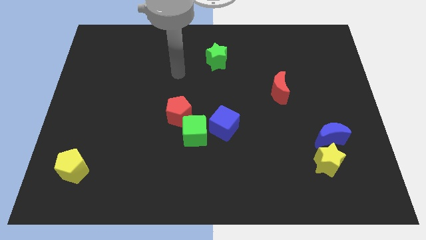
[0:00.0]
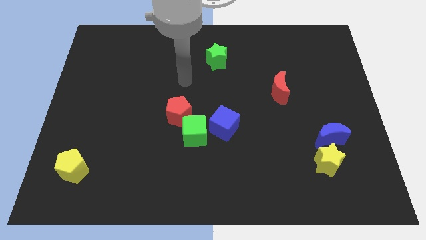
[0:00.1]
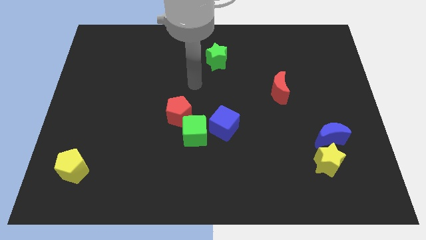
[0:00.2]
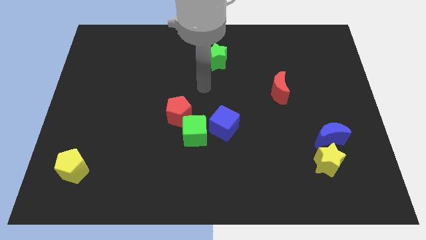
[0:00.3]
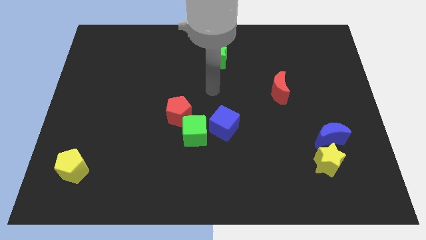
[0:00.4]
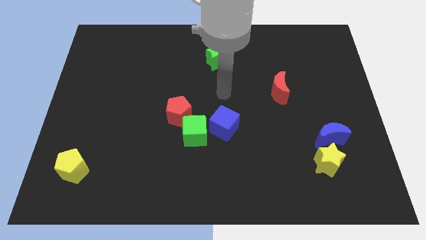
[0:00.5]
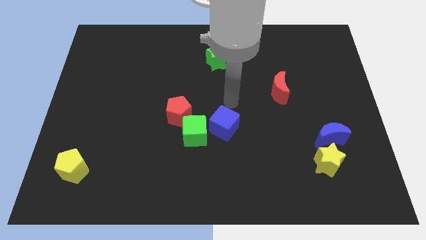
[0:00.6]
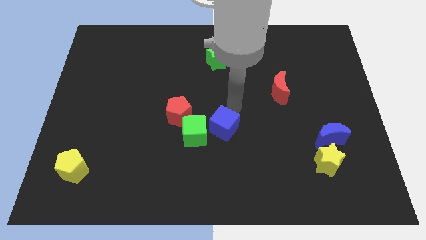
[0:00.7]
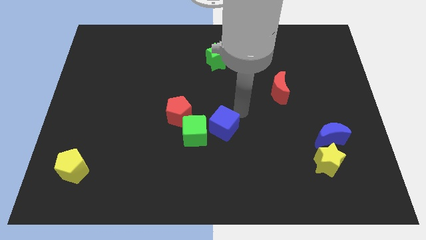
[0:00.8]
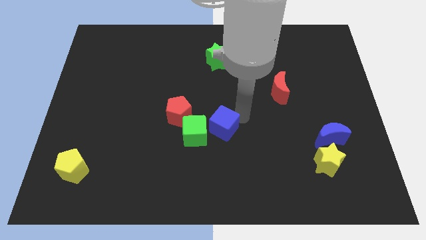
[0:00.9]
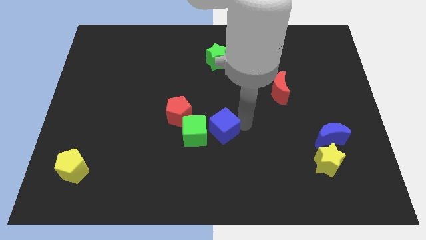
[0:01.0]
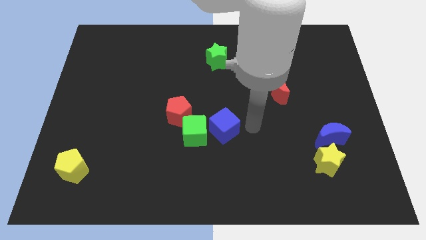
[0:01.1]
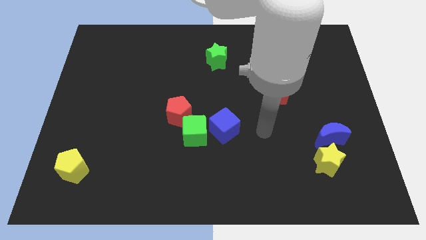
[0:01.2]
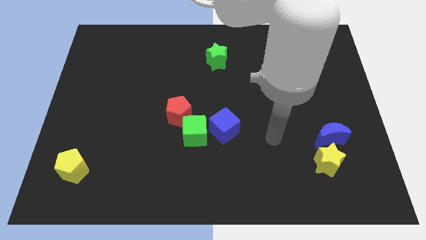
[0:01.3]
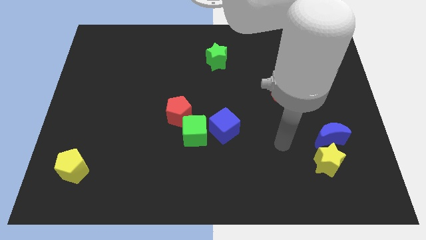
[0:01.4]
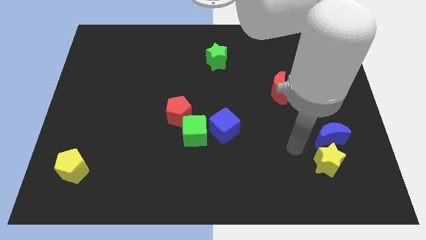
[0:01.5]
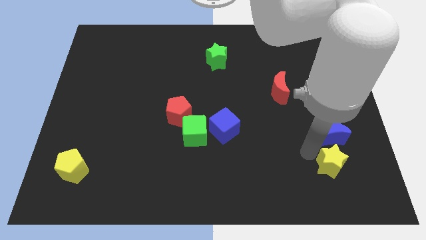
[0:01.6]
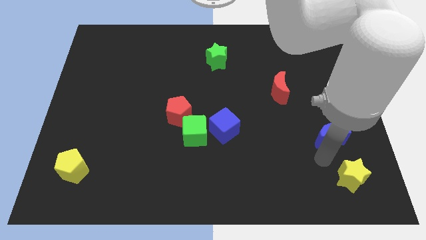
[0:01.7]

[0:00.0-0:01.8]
pull the blue moon apart from the yellow star

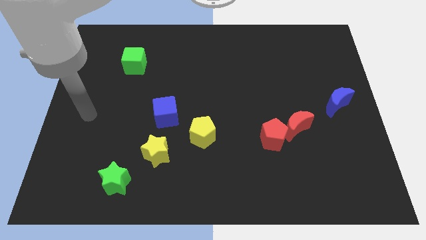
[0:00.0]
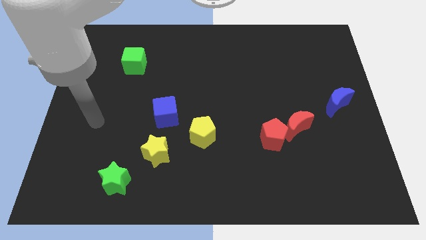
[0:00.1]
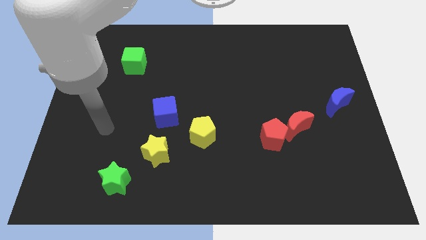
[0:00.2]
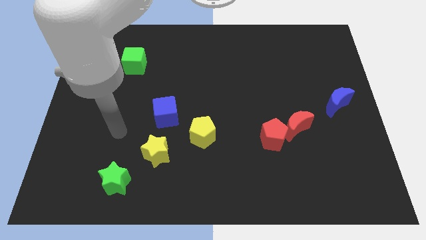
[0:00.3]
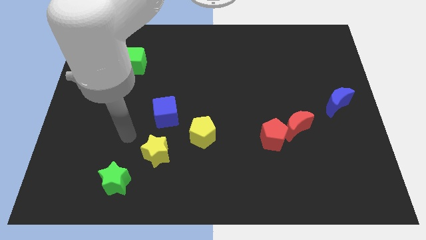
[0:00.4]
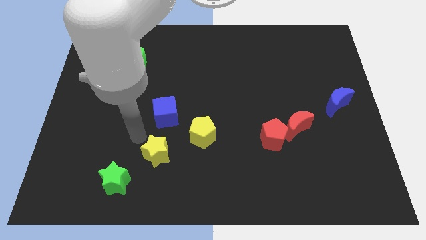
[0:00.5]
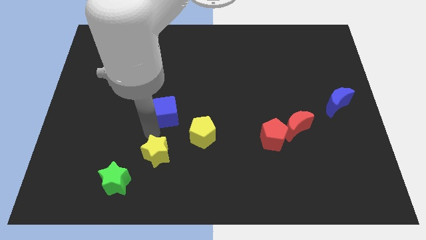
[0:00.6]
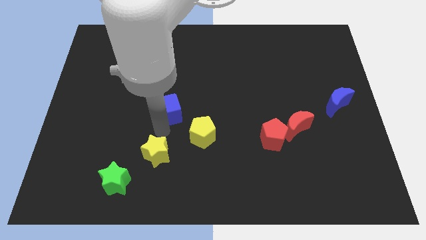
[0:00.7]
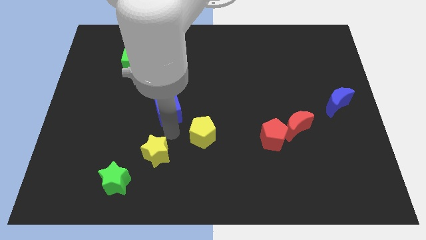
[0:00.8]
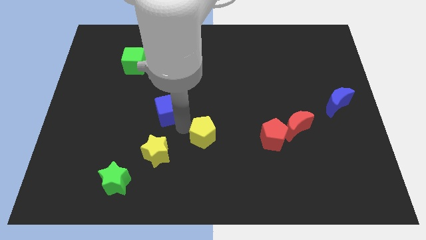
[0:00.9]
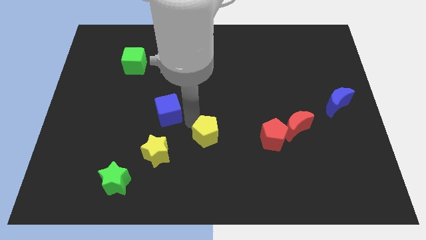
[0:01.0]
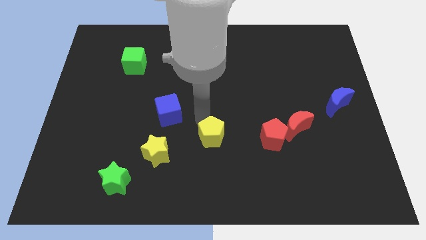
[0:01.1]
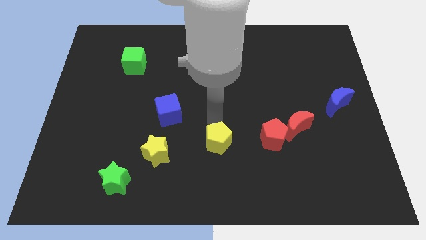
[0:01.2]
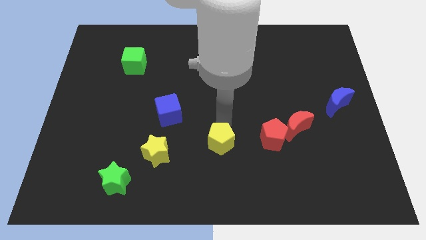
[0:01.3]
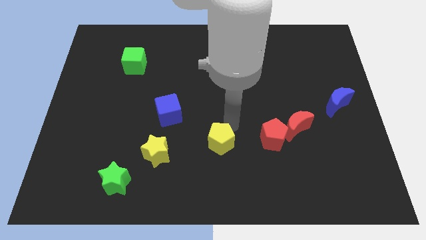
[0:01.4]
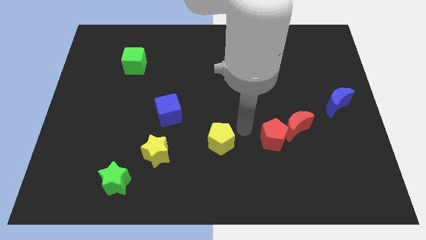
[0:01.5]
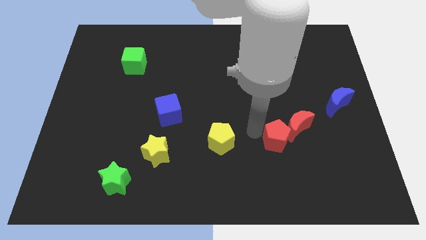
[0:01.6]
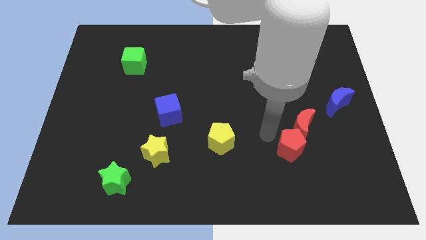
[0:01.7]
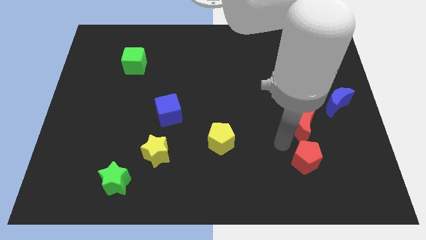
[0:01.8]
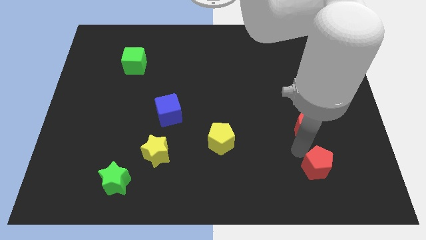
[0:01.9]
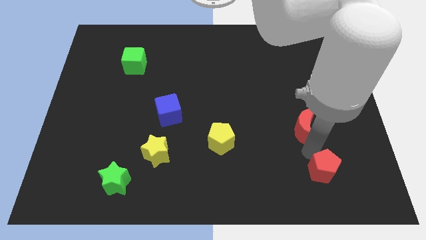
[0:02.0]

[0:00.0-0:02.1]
move the red moon away from the red pentagon

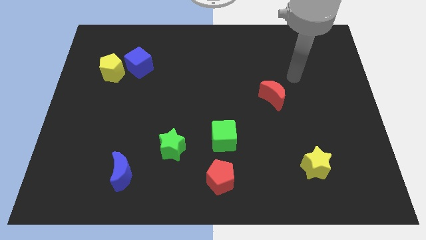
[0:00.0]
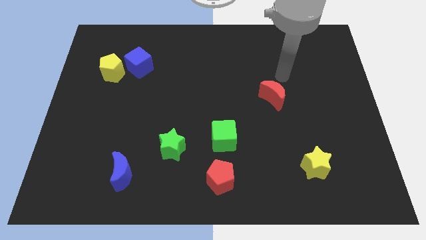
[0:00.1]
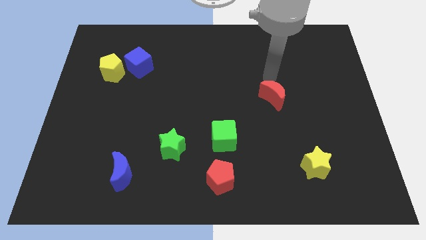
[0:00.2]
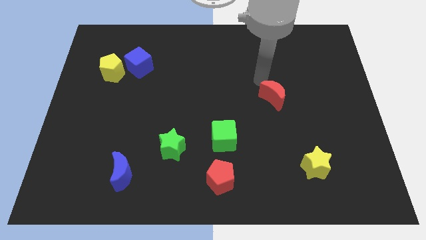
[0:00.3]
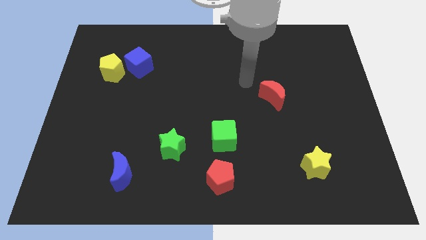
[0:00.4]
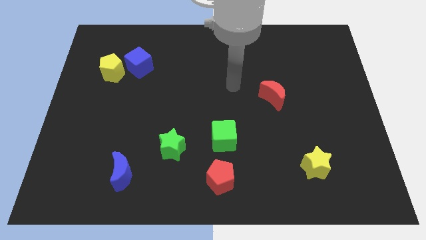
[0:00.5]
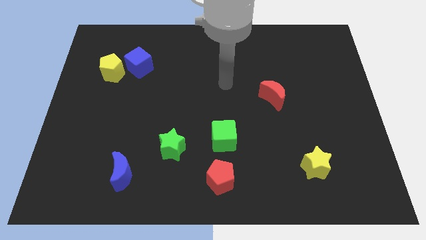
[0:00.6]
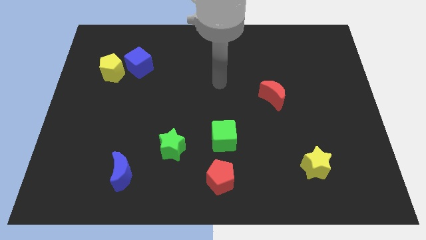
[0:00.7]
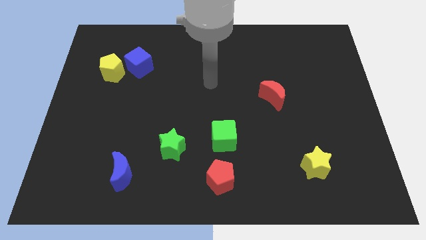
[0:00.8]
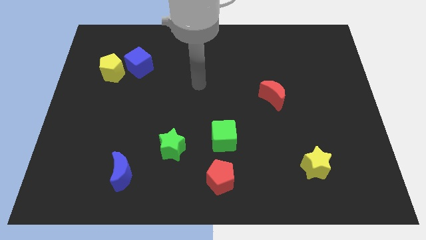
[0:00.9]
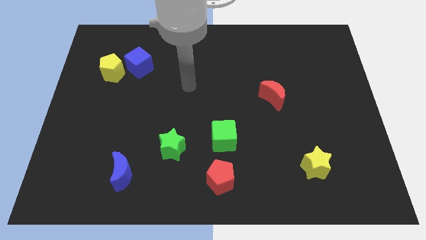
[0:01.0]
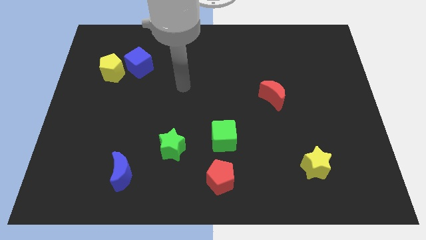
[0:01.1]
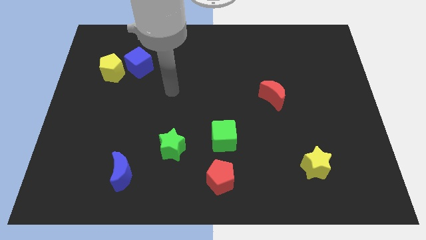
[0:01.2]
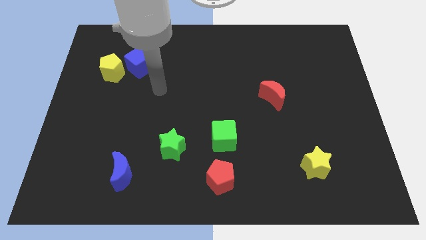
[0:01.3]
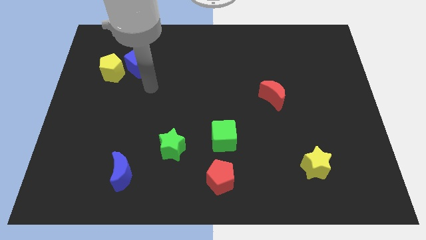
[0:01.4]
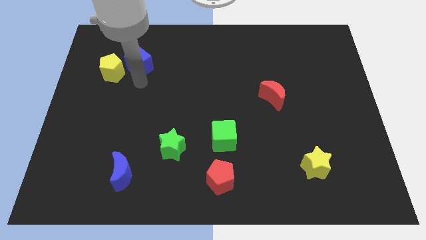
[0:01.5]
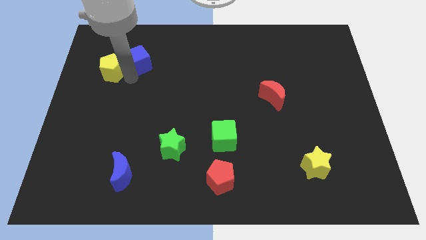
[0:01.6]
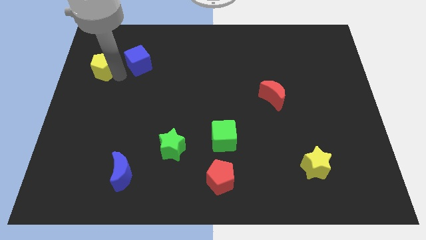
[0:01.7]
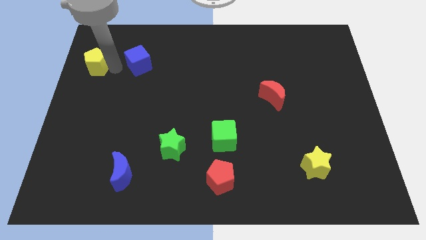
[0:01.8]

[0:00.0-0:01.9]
move the blue cube away from the yellow pentagon

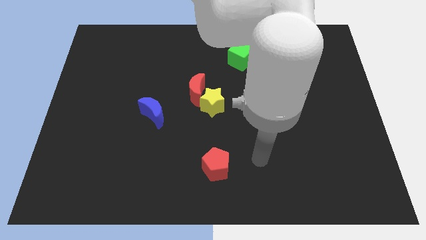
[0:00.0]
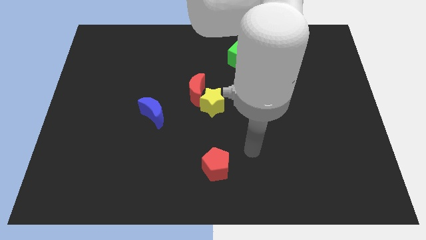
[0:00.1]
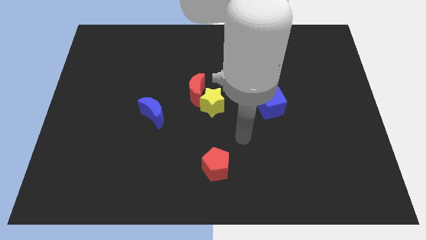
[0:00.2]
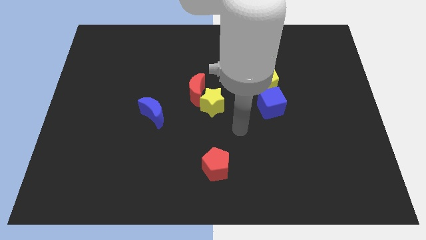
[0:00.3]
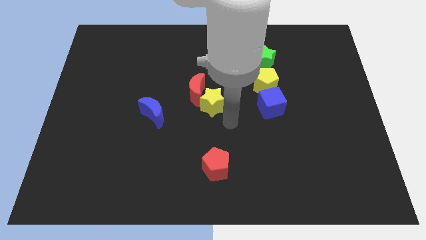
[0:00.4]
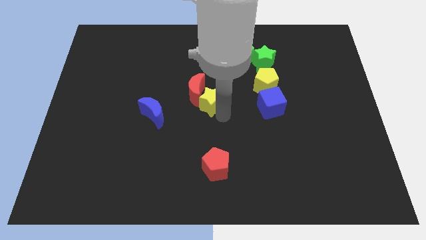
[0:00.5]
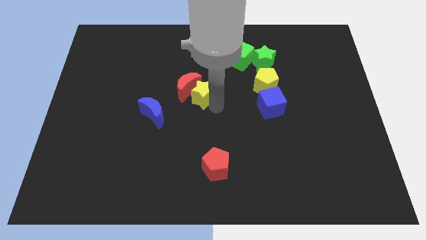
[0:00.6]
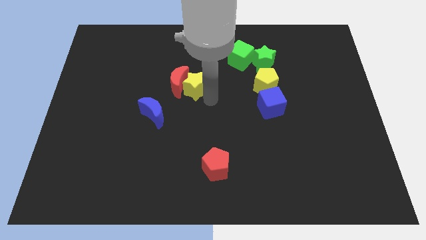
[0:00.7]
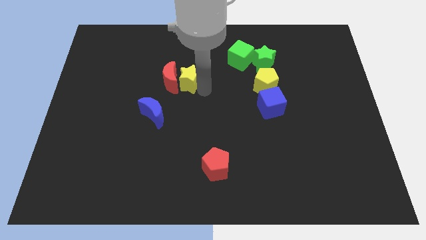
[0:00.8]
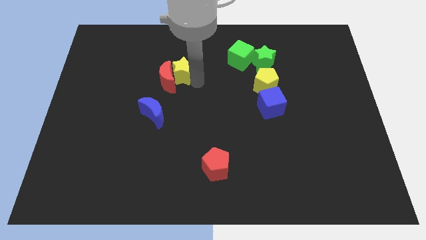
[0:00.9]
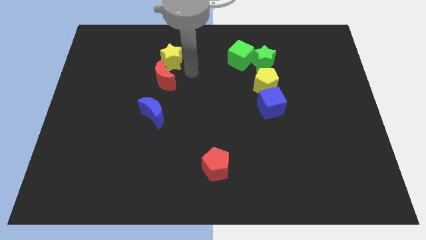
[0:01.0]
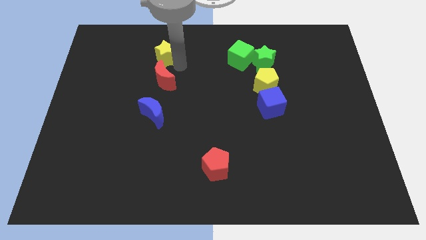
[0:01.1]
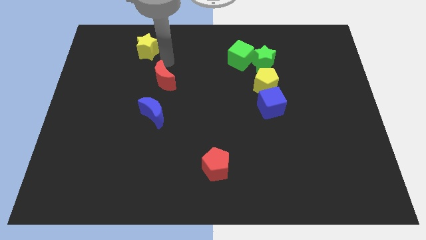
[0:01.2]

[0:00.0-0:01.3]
move the red moon away from the yellow star

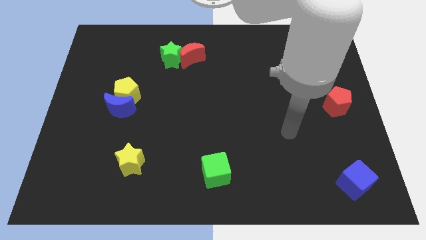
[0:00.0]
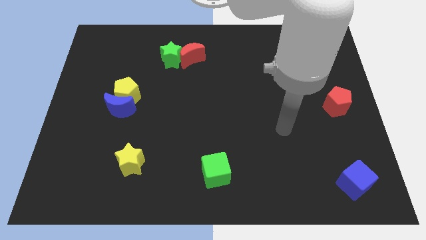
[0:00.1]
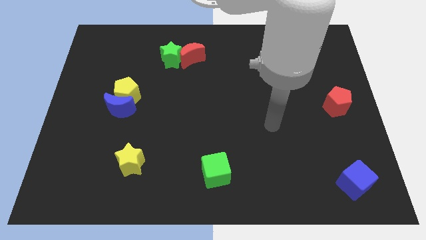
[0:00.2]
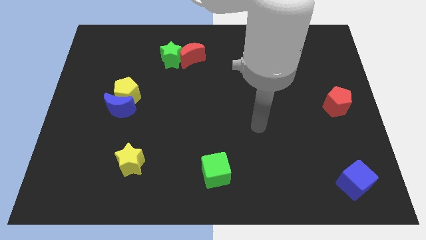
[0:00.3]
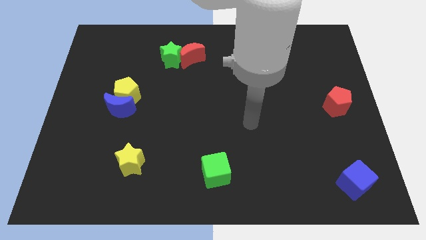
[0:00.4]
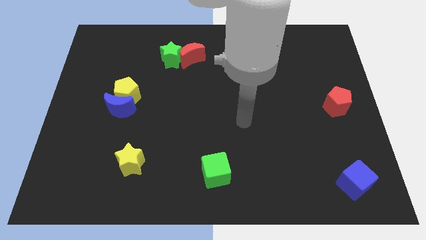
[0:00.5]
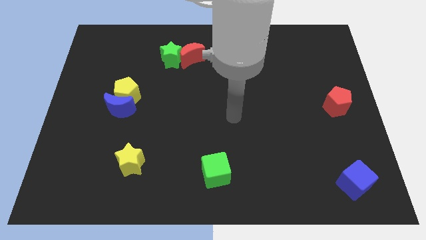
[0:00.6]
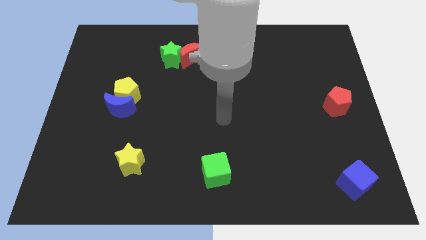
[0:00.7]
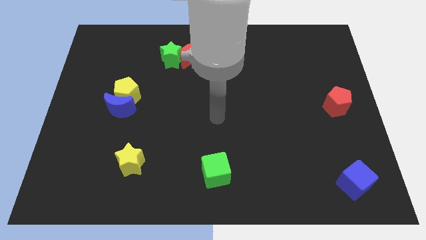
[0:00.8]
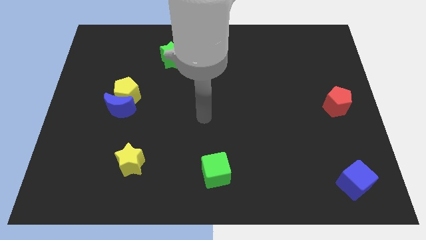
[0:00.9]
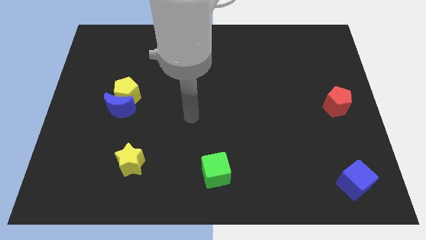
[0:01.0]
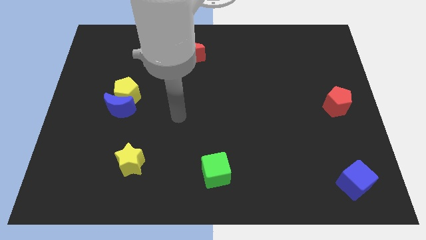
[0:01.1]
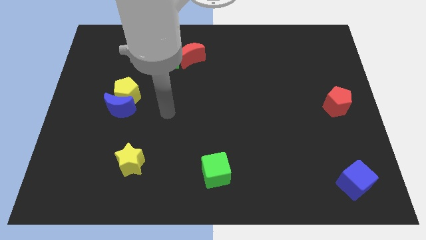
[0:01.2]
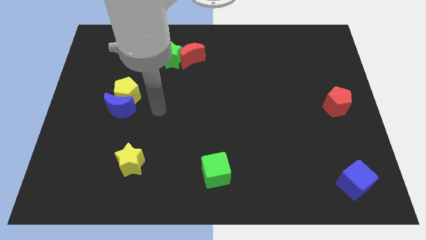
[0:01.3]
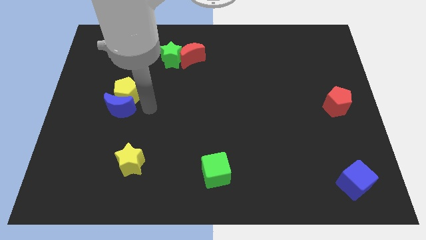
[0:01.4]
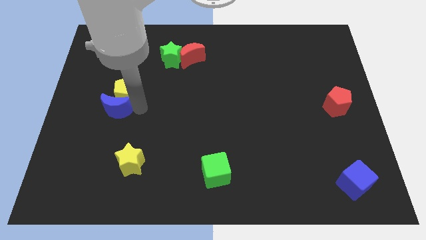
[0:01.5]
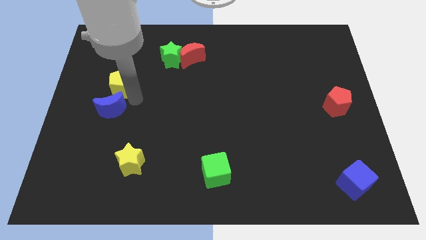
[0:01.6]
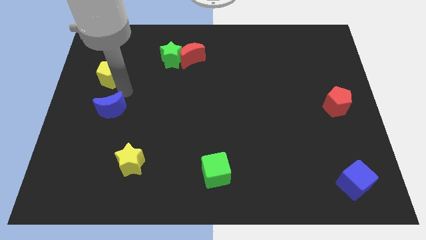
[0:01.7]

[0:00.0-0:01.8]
move the blue moon away from the yellow pentagon

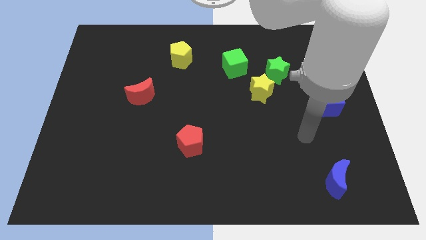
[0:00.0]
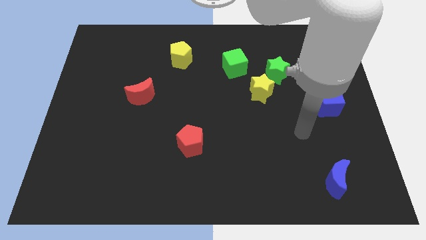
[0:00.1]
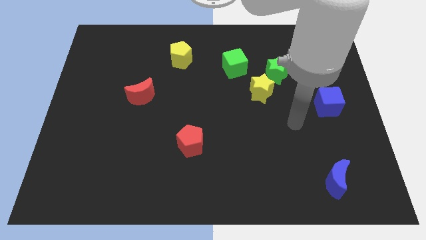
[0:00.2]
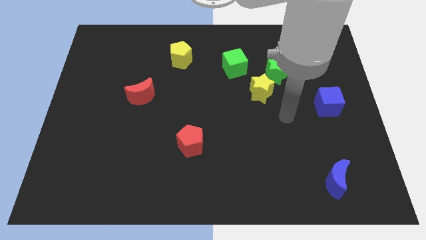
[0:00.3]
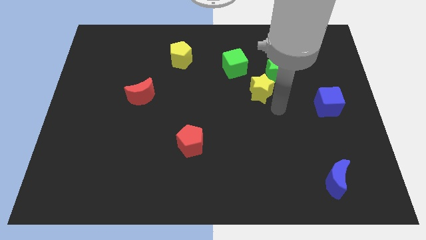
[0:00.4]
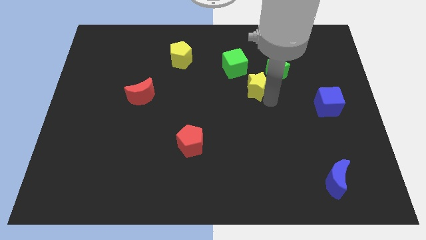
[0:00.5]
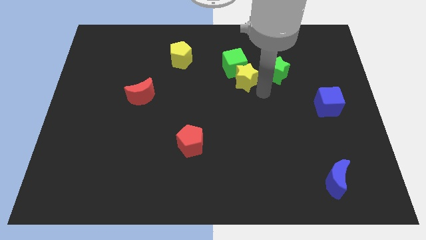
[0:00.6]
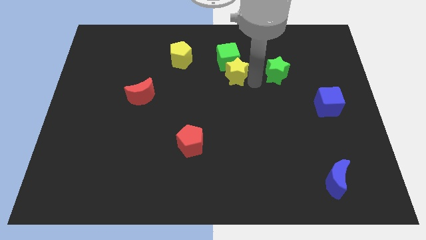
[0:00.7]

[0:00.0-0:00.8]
separate the green star from the yellow star
